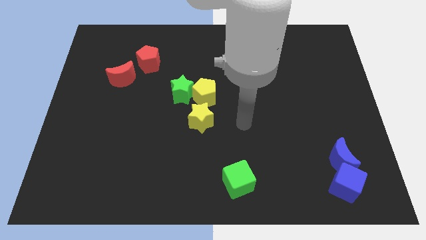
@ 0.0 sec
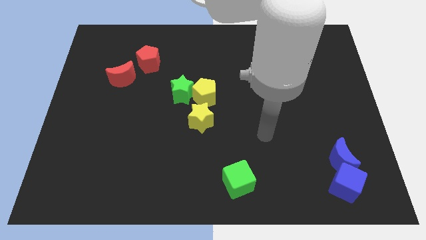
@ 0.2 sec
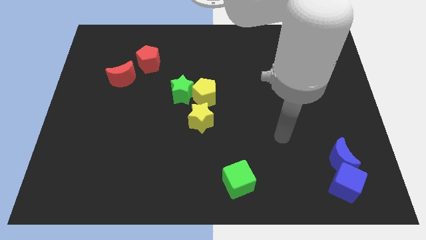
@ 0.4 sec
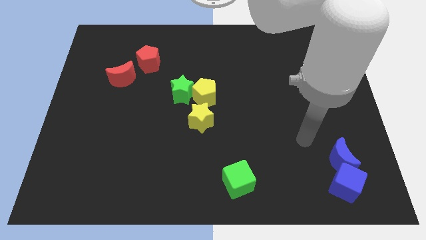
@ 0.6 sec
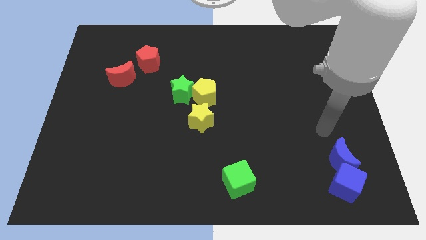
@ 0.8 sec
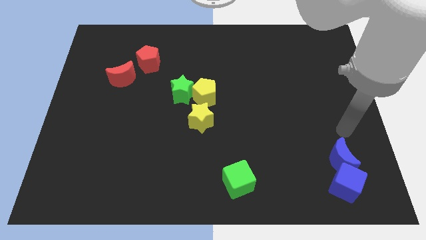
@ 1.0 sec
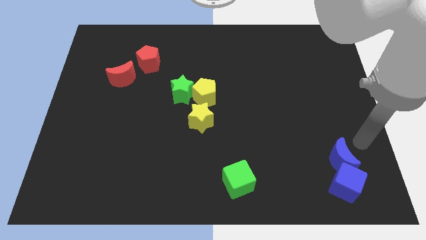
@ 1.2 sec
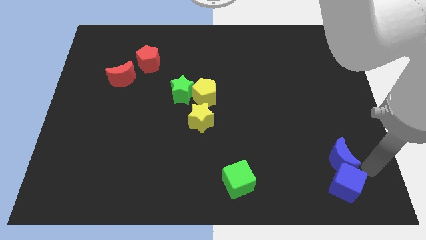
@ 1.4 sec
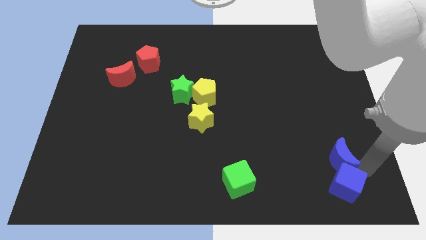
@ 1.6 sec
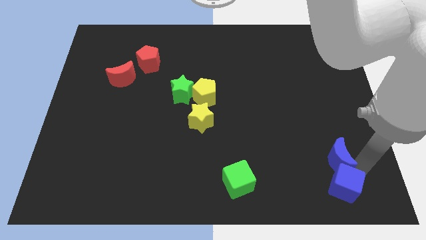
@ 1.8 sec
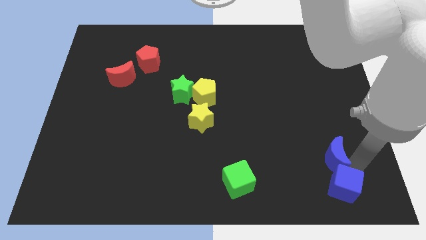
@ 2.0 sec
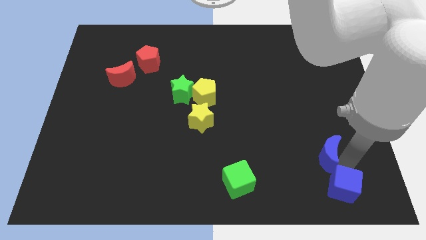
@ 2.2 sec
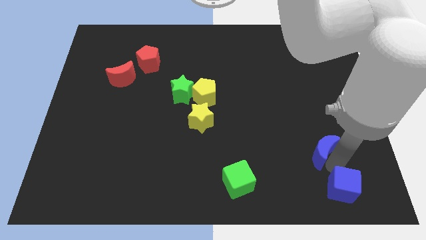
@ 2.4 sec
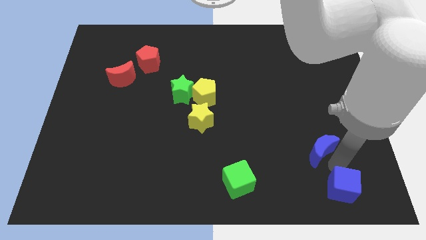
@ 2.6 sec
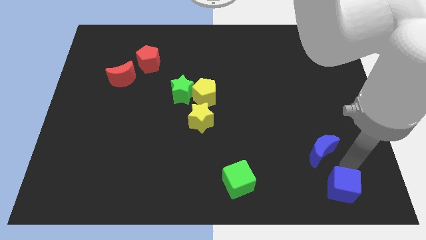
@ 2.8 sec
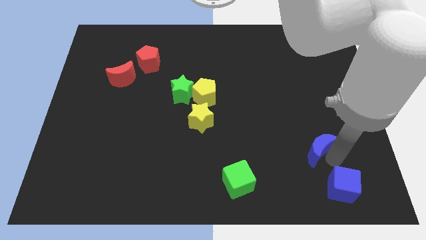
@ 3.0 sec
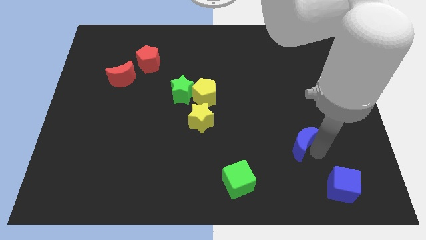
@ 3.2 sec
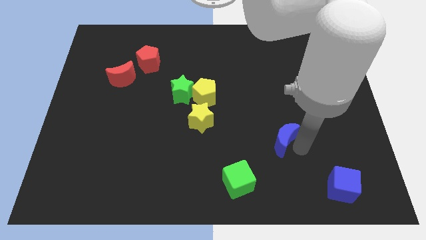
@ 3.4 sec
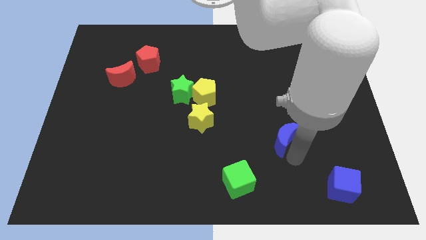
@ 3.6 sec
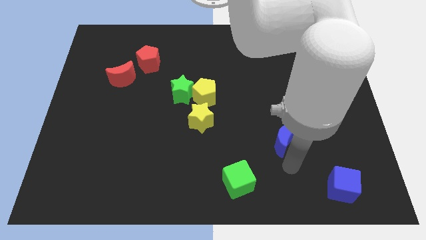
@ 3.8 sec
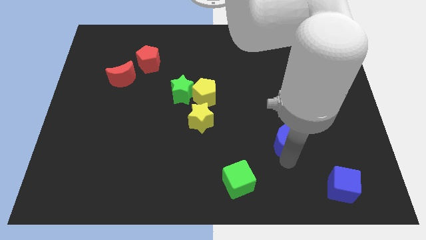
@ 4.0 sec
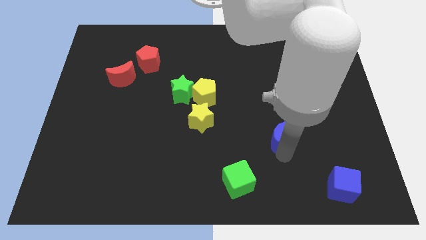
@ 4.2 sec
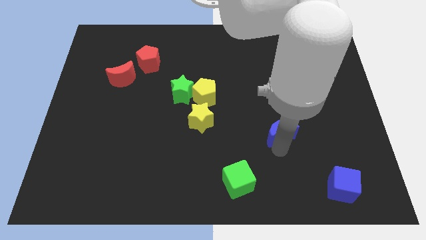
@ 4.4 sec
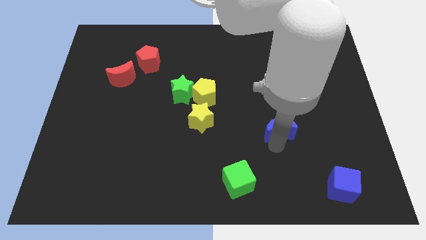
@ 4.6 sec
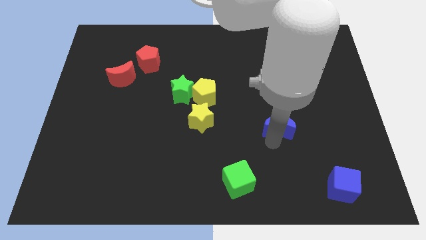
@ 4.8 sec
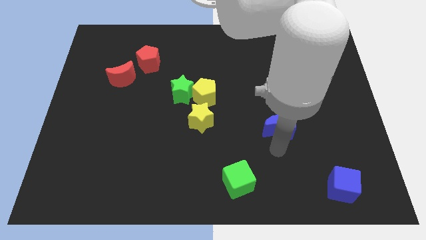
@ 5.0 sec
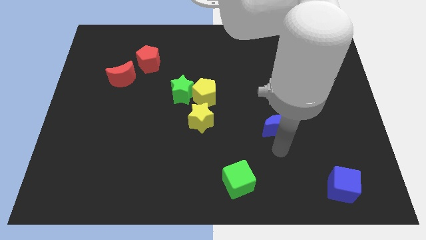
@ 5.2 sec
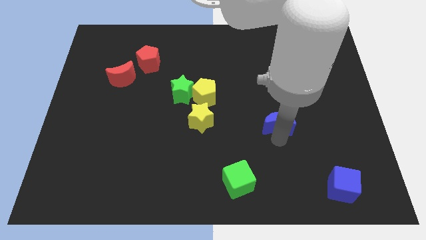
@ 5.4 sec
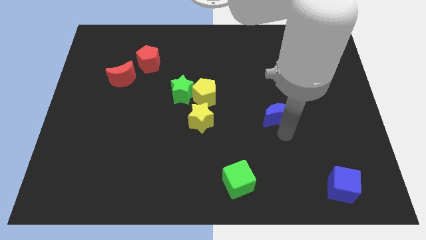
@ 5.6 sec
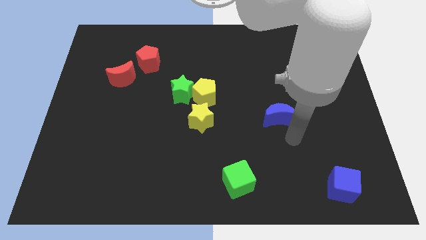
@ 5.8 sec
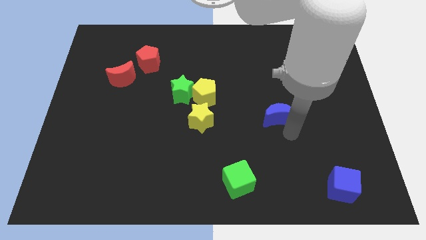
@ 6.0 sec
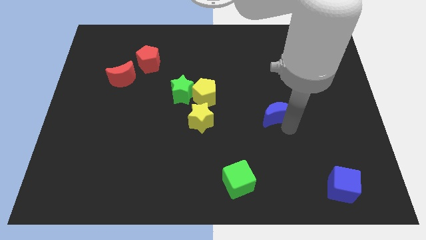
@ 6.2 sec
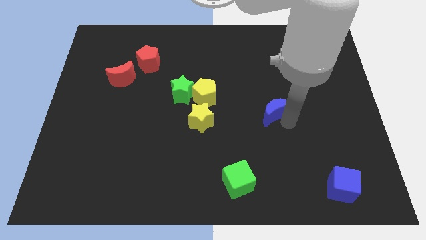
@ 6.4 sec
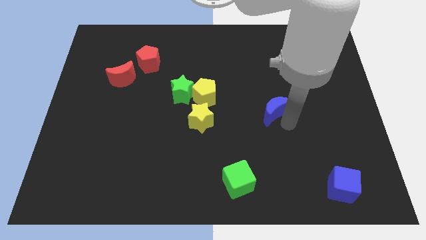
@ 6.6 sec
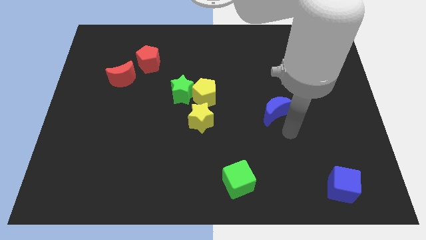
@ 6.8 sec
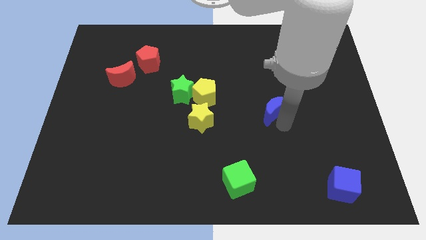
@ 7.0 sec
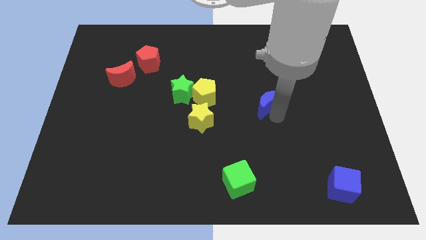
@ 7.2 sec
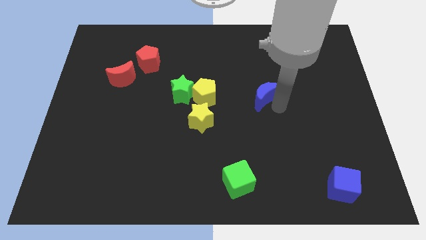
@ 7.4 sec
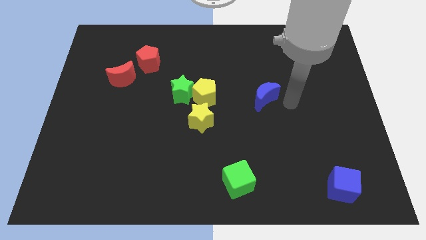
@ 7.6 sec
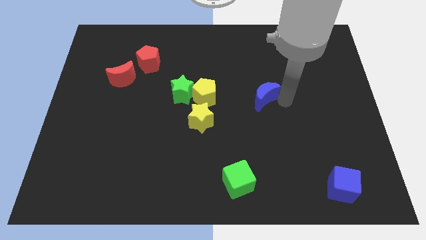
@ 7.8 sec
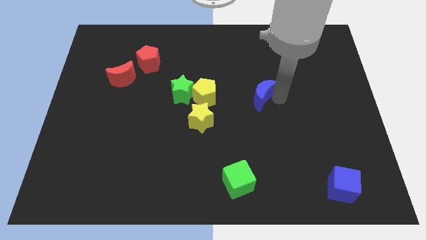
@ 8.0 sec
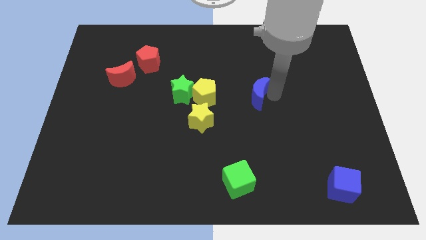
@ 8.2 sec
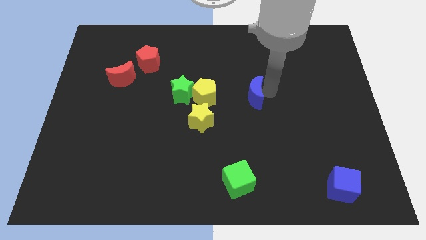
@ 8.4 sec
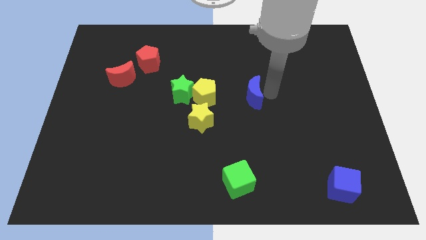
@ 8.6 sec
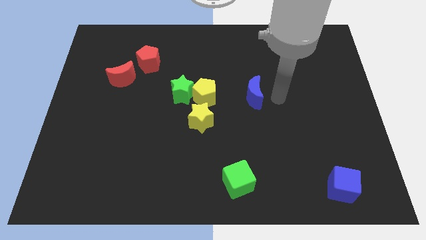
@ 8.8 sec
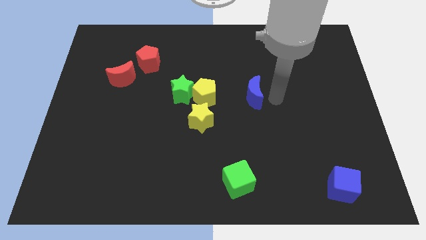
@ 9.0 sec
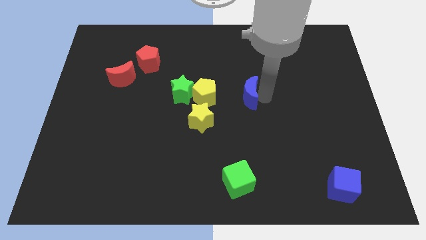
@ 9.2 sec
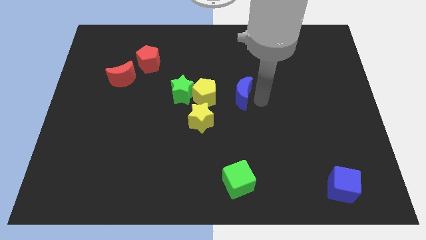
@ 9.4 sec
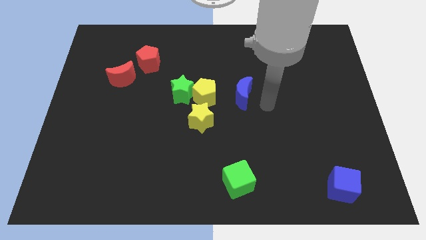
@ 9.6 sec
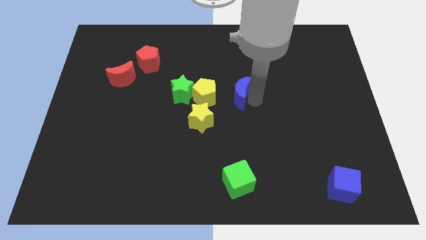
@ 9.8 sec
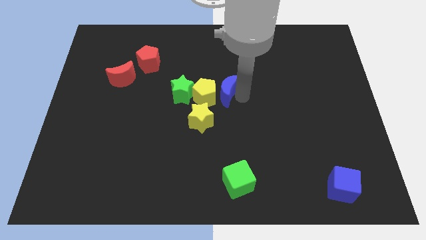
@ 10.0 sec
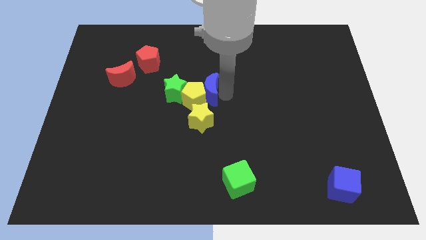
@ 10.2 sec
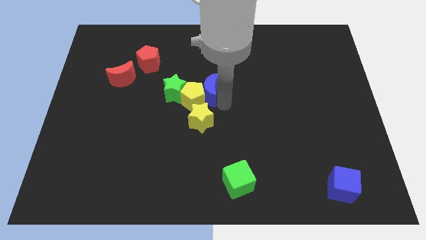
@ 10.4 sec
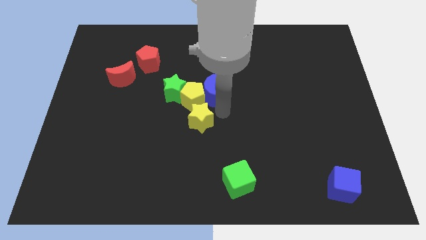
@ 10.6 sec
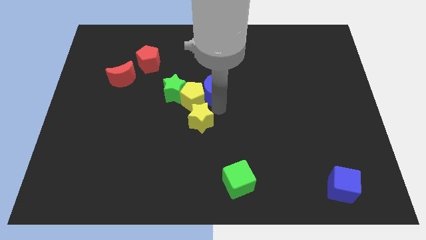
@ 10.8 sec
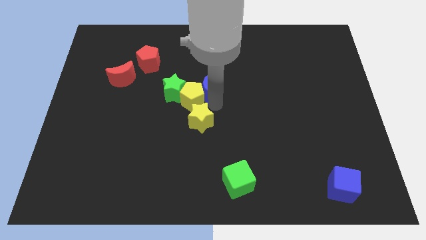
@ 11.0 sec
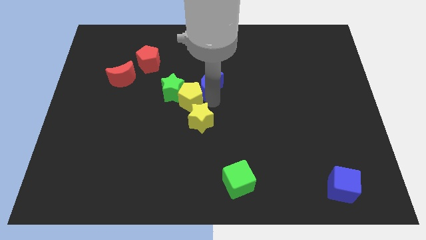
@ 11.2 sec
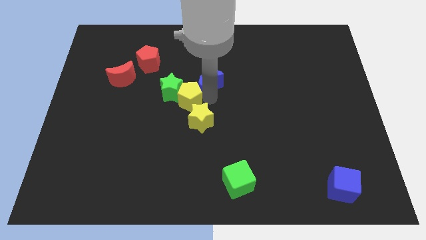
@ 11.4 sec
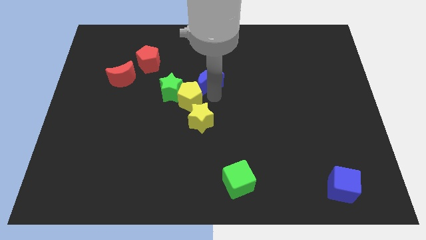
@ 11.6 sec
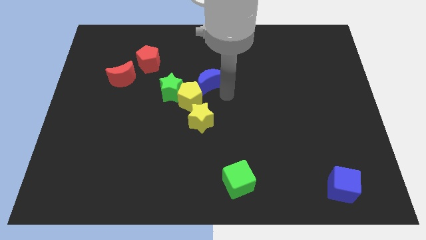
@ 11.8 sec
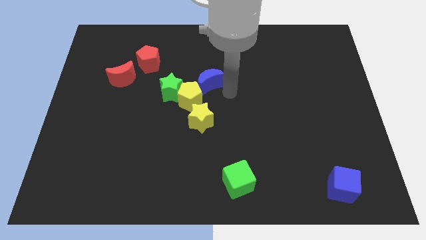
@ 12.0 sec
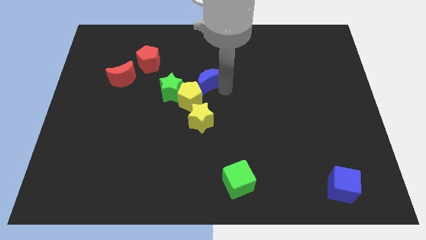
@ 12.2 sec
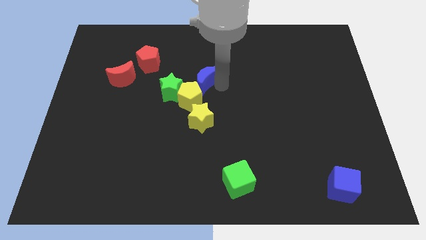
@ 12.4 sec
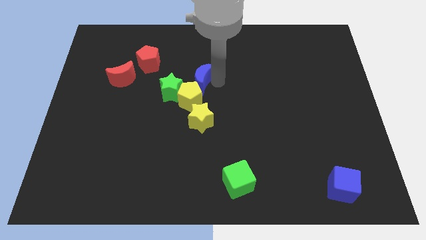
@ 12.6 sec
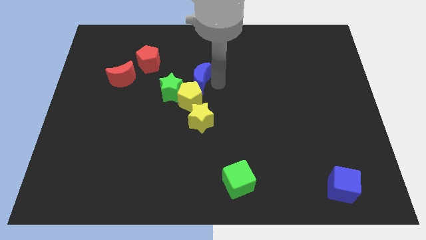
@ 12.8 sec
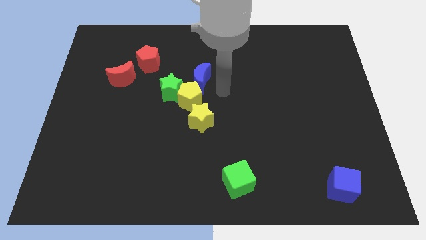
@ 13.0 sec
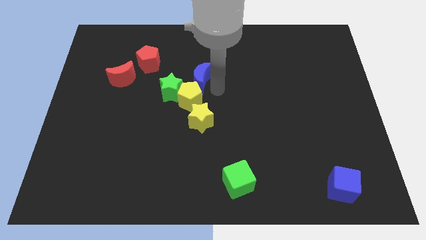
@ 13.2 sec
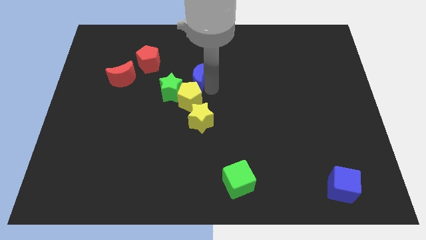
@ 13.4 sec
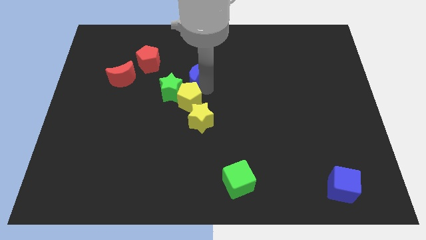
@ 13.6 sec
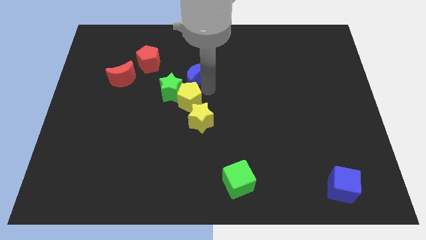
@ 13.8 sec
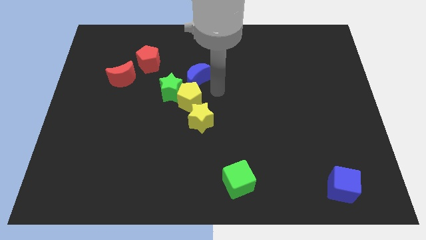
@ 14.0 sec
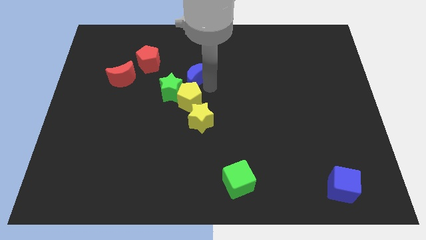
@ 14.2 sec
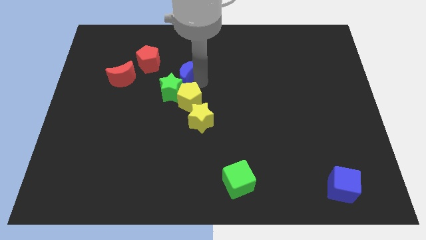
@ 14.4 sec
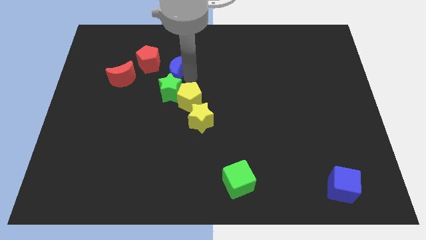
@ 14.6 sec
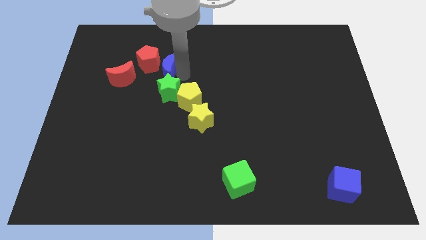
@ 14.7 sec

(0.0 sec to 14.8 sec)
put the blue moon next to the red pentagon
